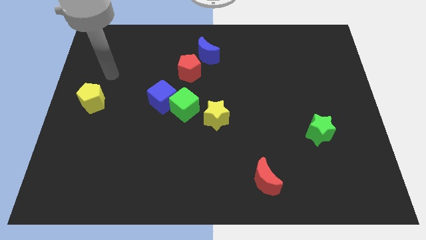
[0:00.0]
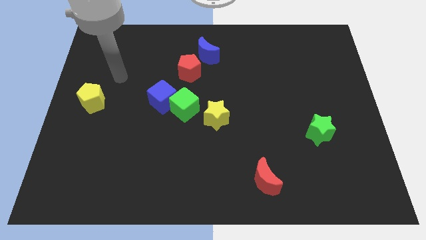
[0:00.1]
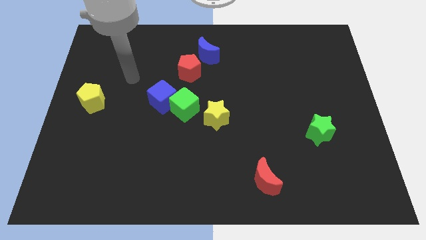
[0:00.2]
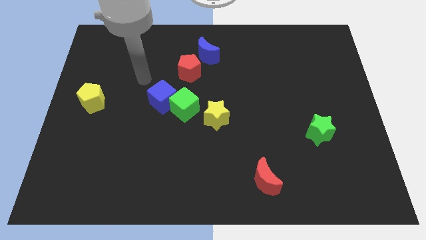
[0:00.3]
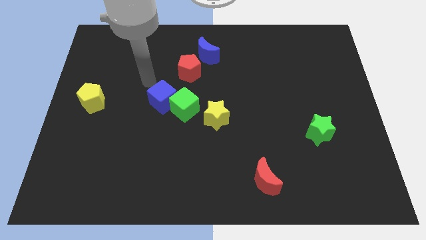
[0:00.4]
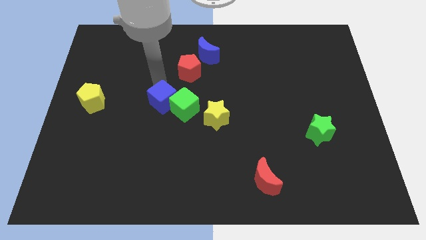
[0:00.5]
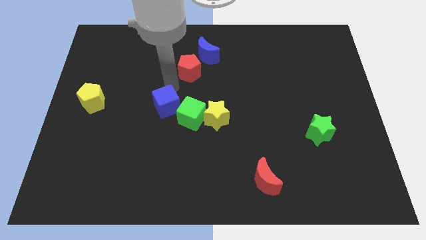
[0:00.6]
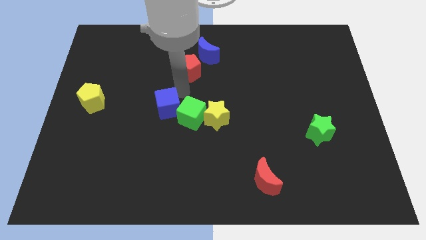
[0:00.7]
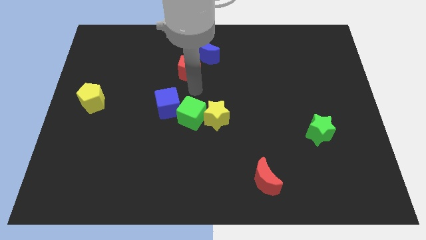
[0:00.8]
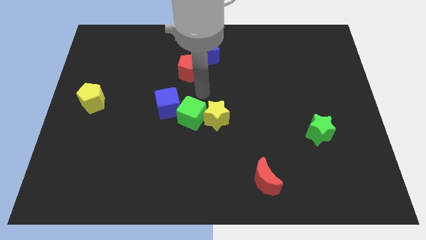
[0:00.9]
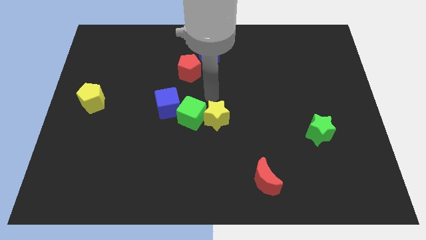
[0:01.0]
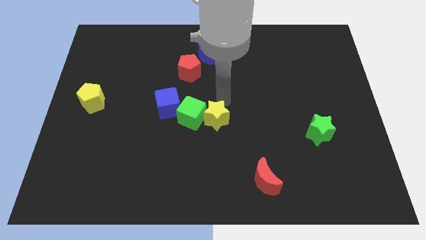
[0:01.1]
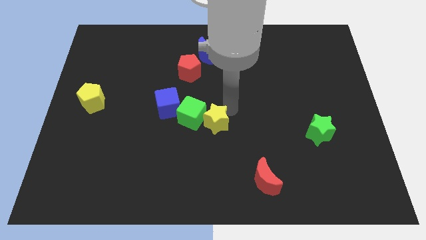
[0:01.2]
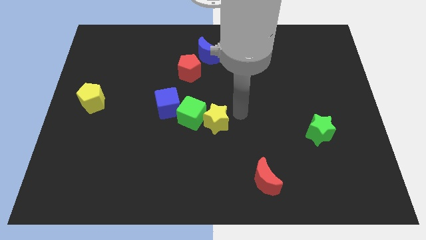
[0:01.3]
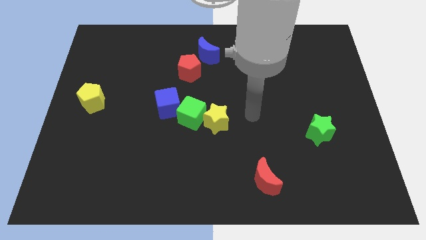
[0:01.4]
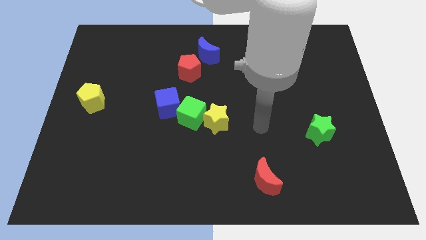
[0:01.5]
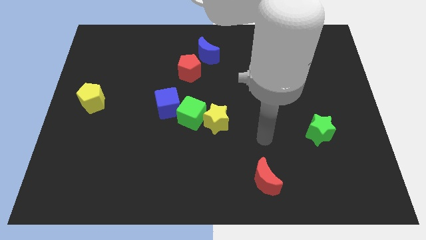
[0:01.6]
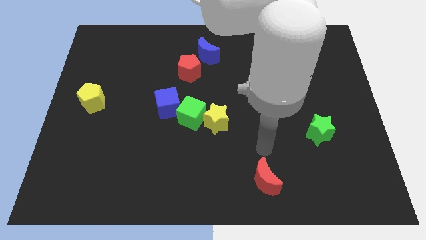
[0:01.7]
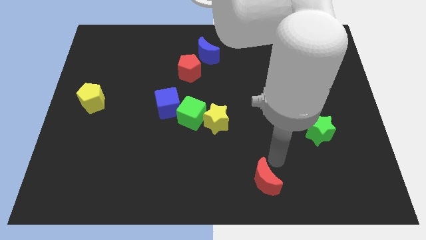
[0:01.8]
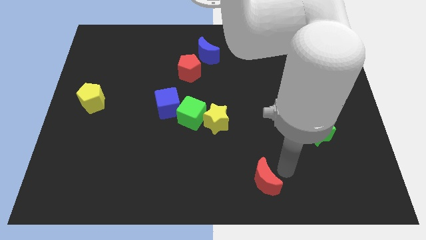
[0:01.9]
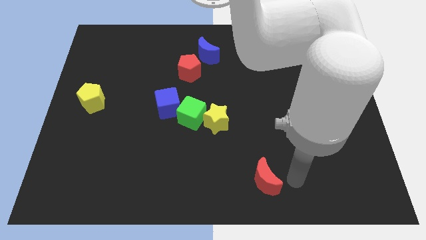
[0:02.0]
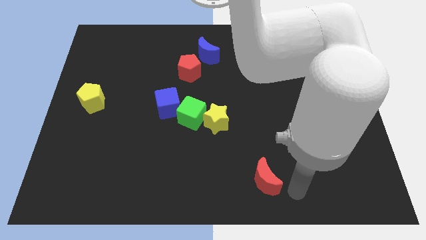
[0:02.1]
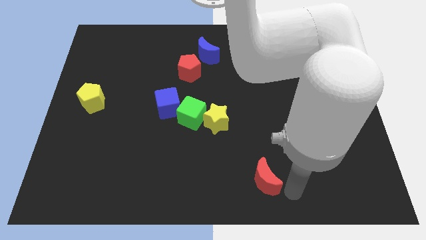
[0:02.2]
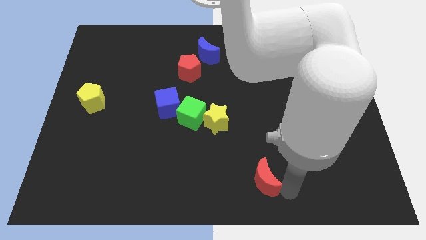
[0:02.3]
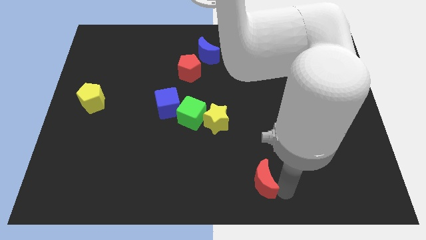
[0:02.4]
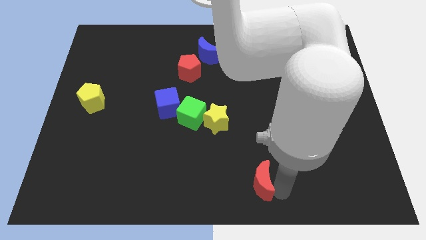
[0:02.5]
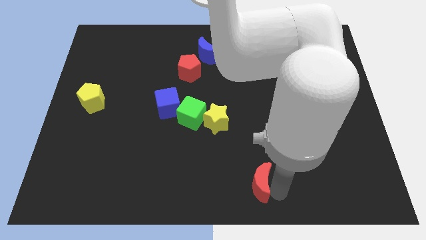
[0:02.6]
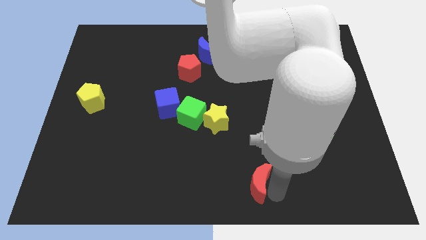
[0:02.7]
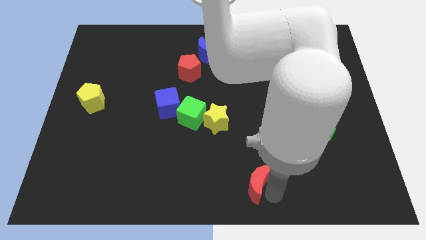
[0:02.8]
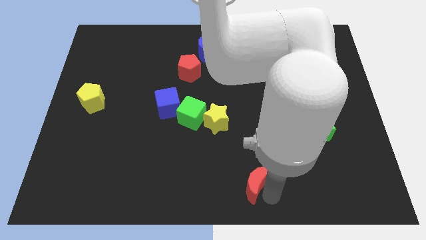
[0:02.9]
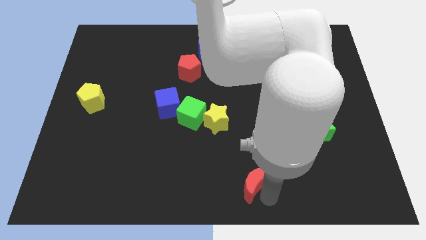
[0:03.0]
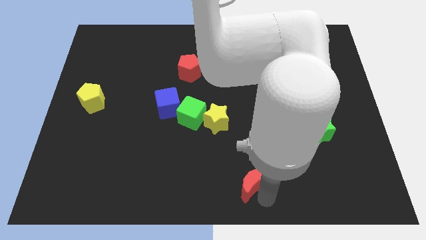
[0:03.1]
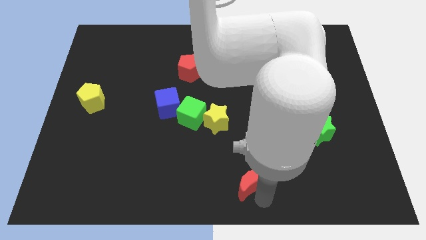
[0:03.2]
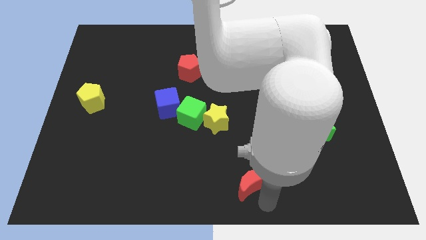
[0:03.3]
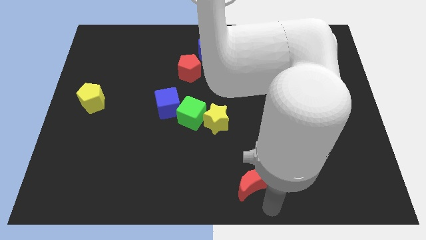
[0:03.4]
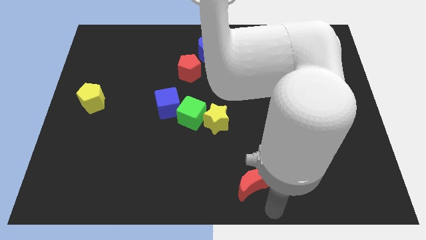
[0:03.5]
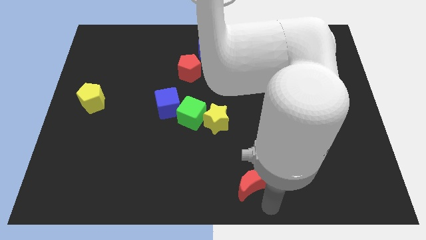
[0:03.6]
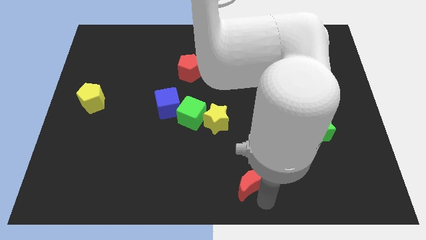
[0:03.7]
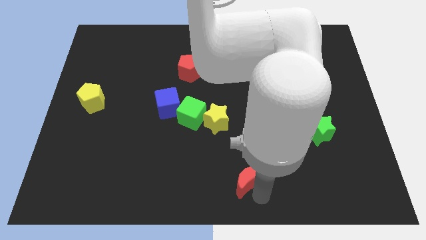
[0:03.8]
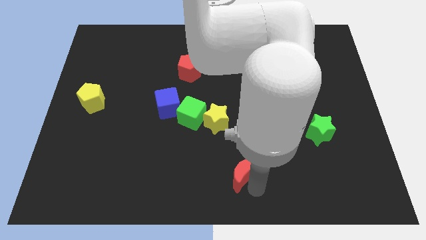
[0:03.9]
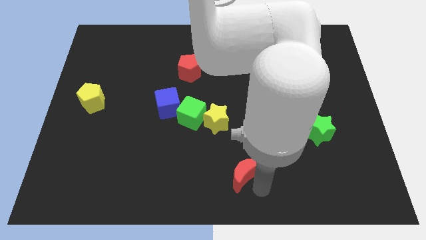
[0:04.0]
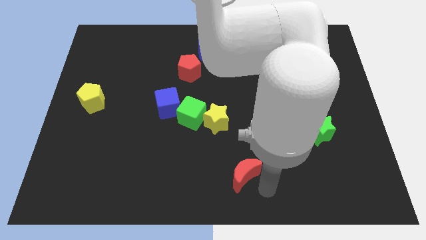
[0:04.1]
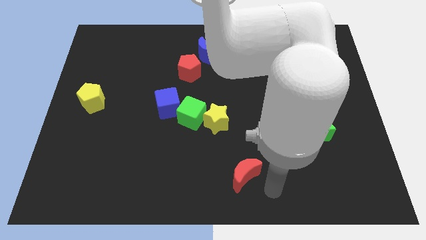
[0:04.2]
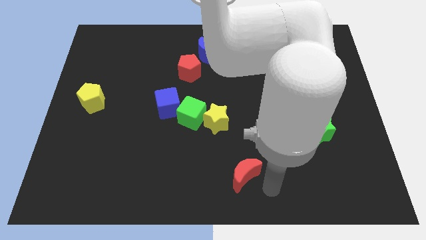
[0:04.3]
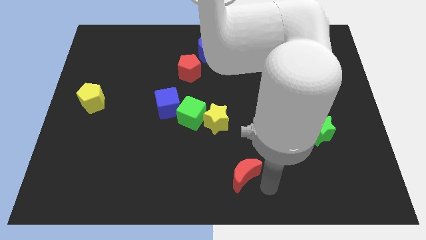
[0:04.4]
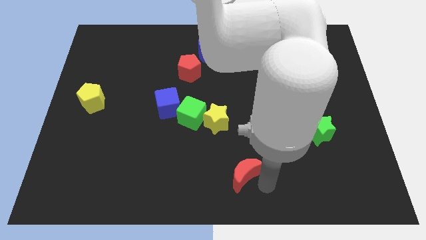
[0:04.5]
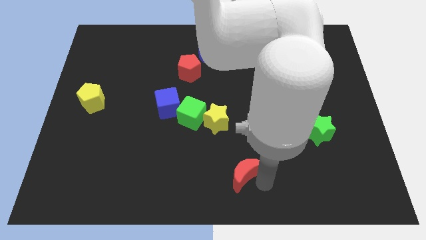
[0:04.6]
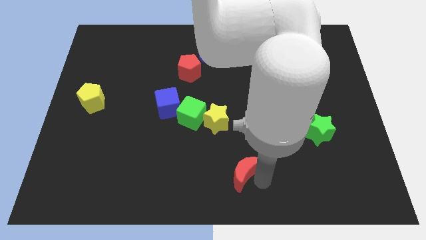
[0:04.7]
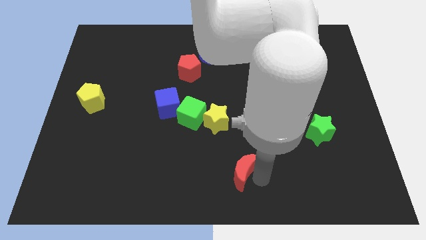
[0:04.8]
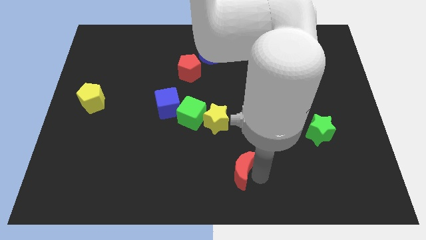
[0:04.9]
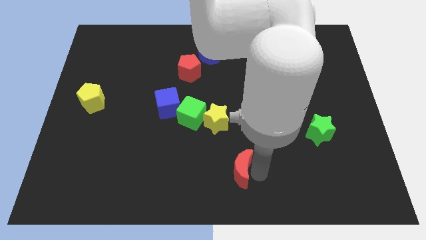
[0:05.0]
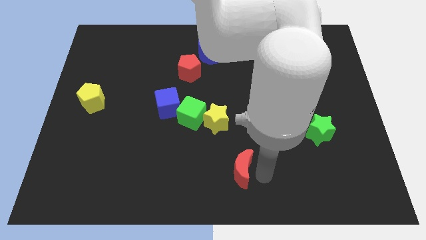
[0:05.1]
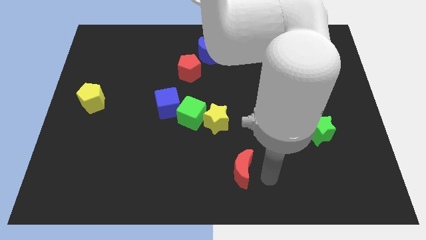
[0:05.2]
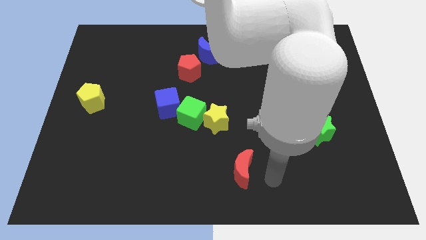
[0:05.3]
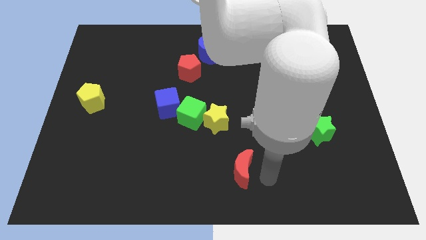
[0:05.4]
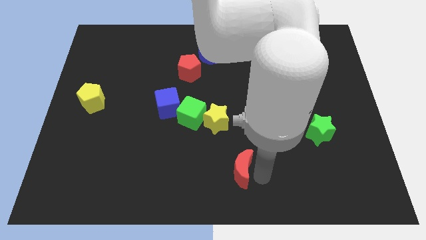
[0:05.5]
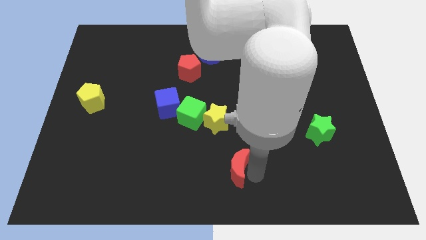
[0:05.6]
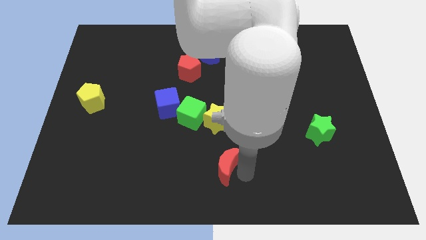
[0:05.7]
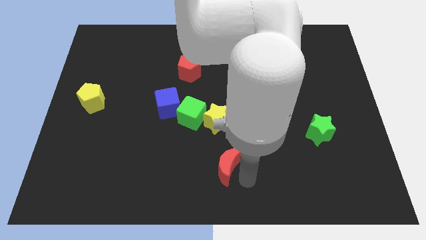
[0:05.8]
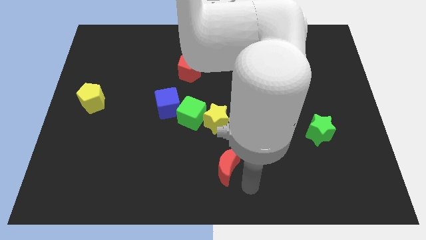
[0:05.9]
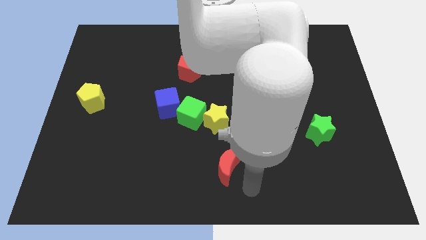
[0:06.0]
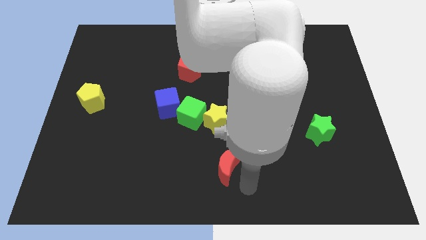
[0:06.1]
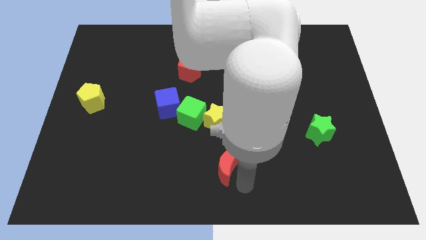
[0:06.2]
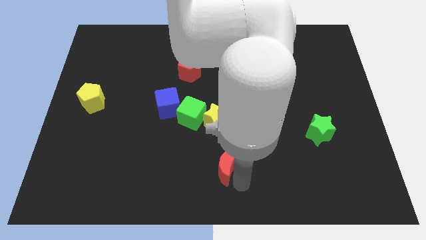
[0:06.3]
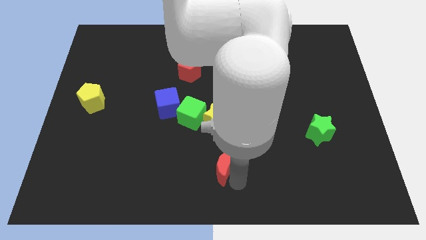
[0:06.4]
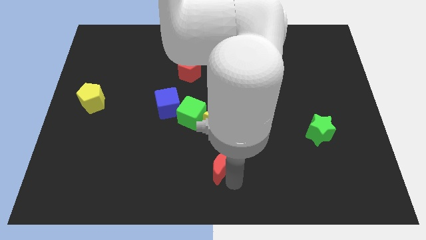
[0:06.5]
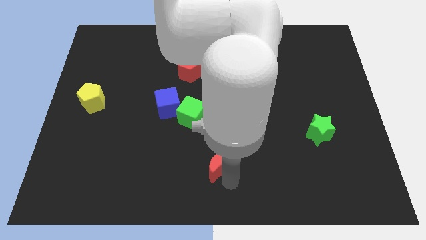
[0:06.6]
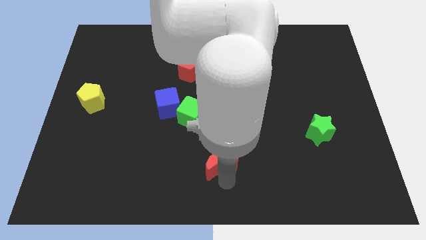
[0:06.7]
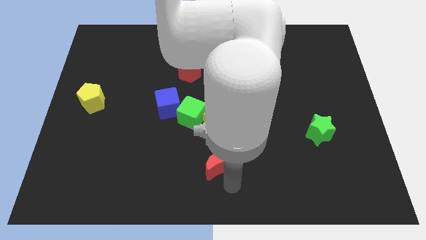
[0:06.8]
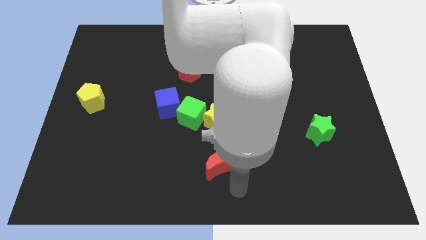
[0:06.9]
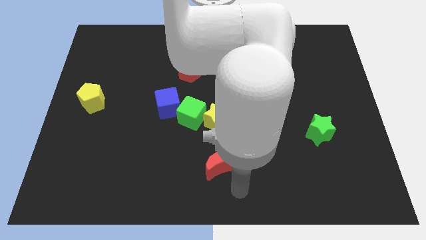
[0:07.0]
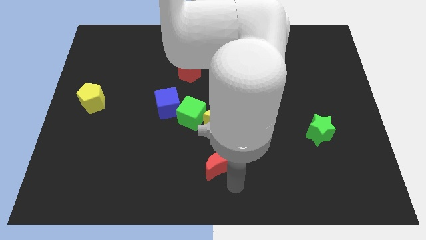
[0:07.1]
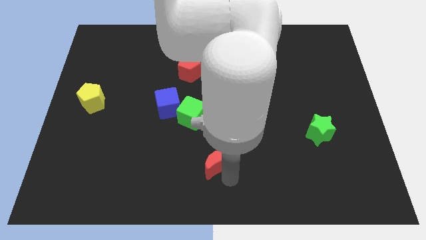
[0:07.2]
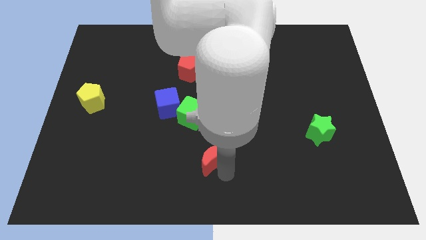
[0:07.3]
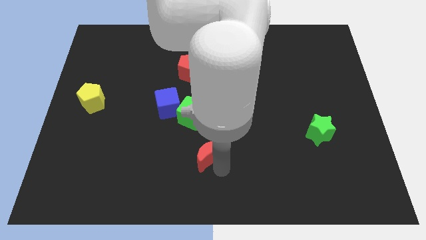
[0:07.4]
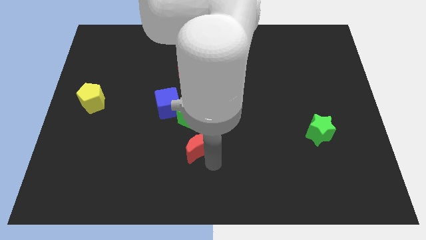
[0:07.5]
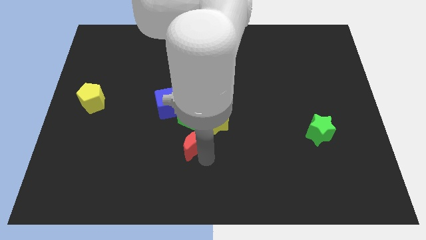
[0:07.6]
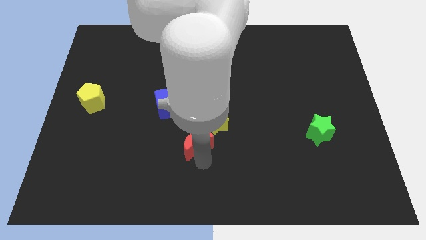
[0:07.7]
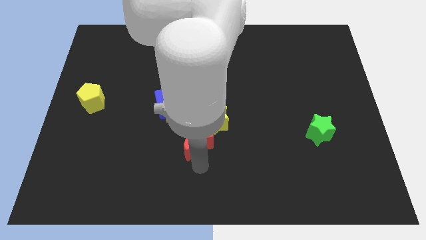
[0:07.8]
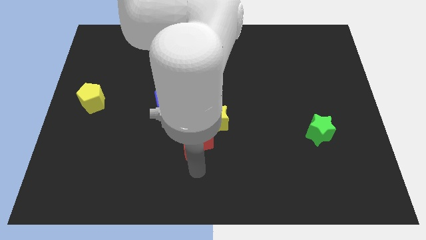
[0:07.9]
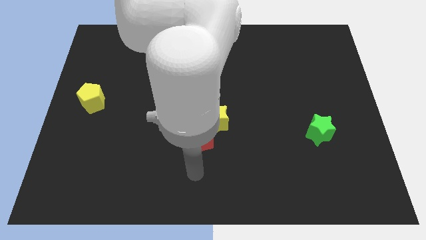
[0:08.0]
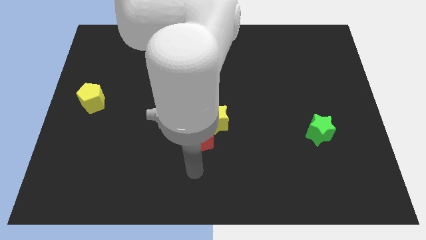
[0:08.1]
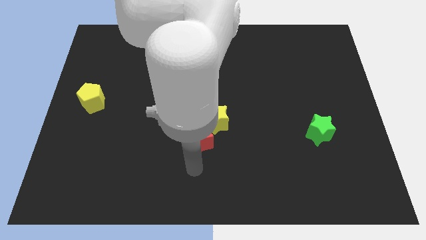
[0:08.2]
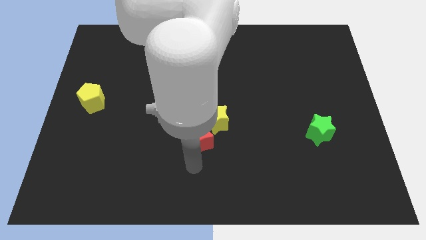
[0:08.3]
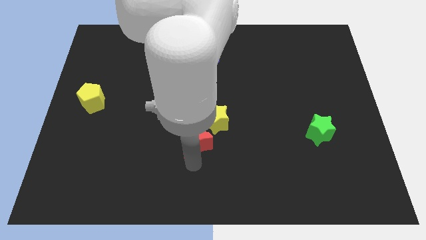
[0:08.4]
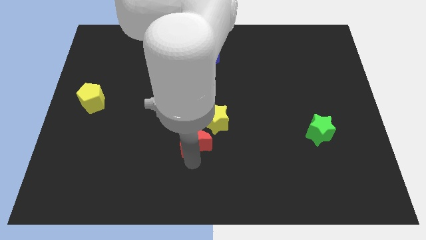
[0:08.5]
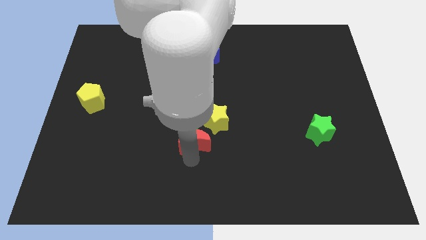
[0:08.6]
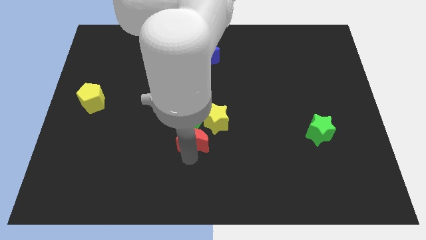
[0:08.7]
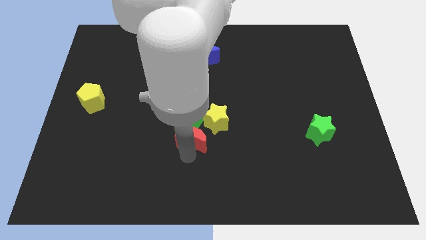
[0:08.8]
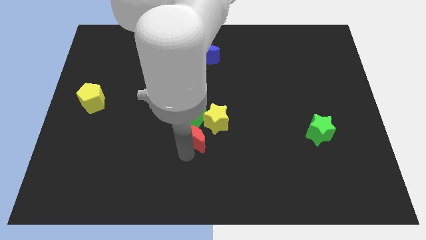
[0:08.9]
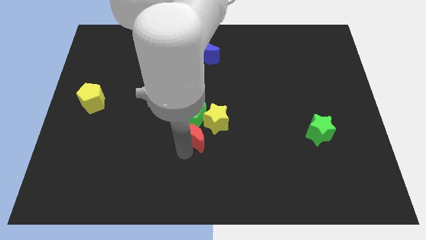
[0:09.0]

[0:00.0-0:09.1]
push the red moon next to the green cube
